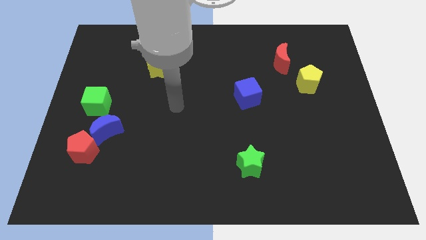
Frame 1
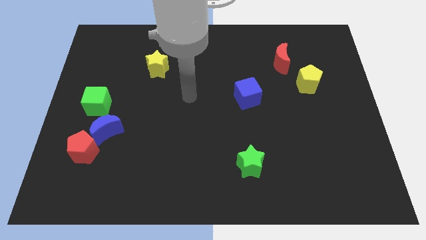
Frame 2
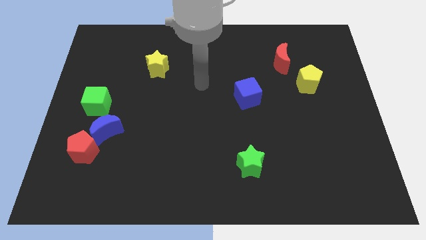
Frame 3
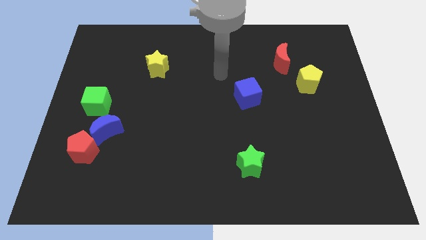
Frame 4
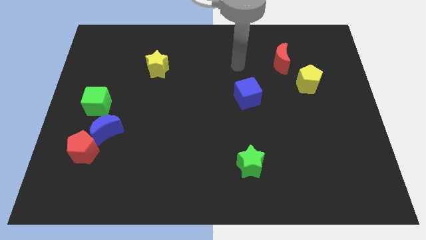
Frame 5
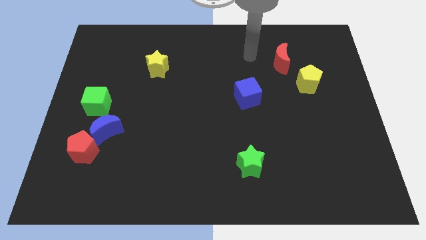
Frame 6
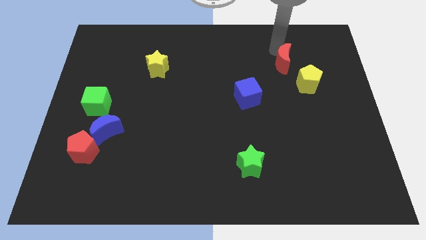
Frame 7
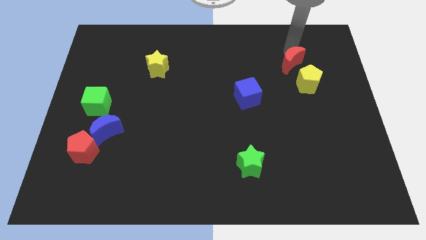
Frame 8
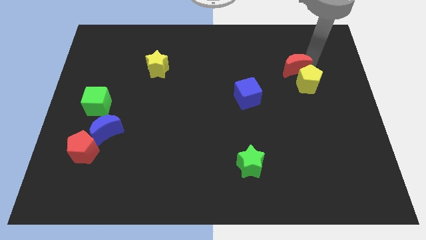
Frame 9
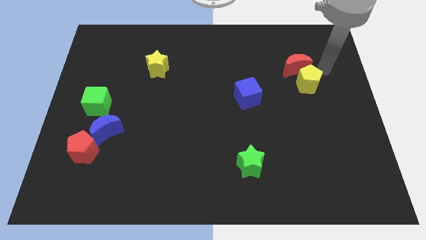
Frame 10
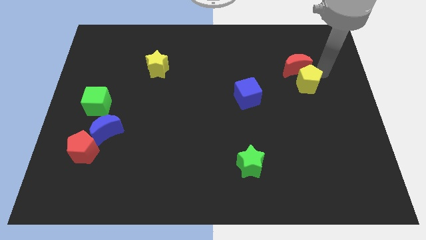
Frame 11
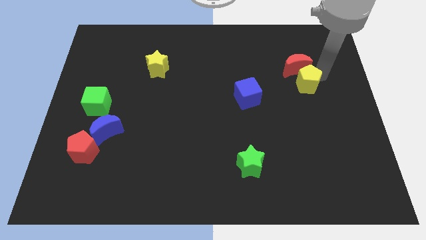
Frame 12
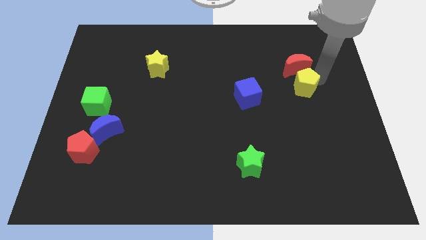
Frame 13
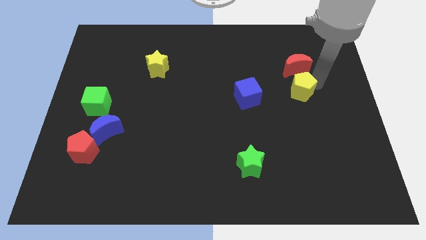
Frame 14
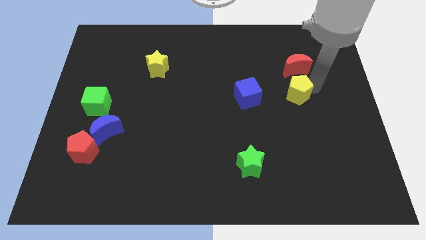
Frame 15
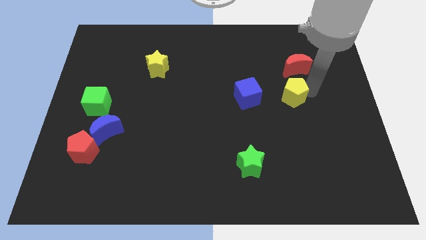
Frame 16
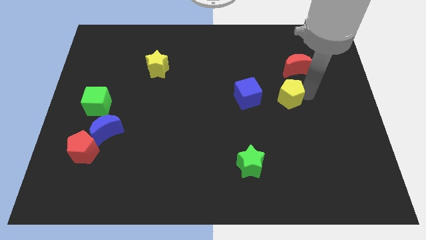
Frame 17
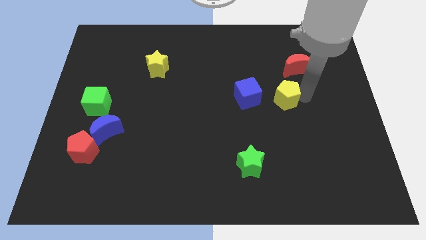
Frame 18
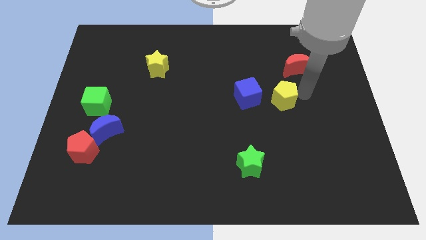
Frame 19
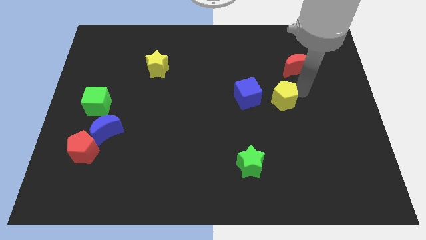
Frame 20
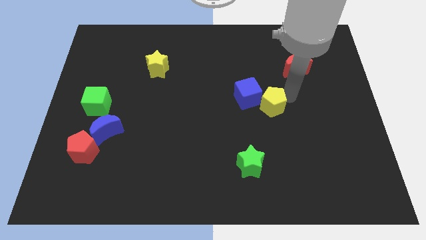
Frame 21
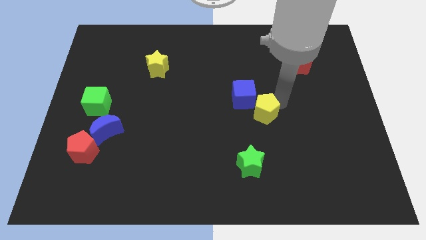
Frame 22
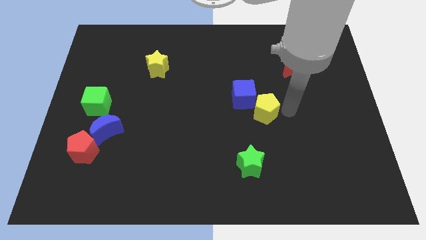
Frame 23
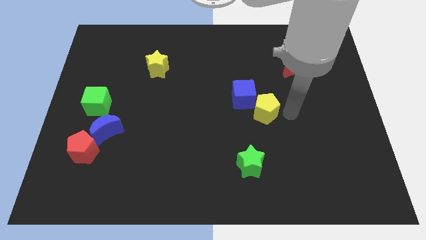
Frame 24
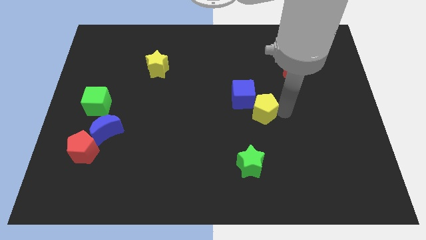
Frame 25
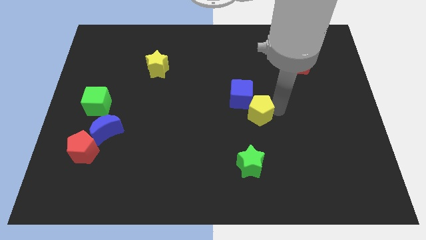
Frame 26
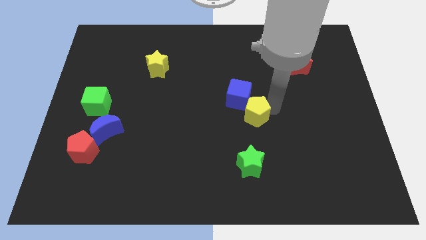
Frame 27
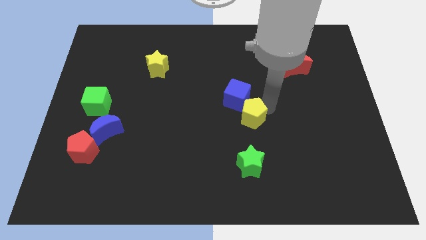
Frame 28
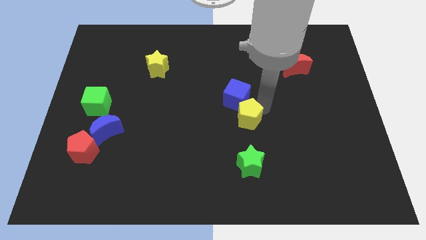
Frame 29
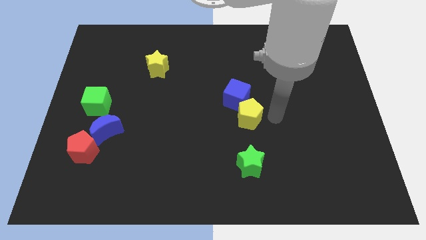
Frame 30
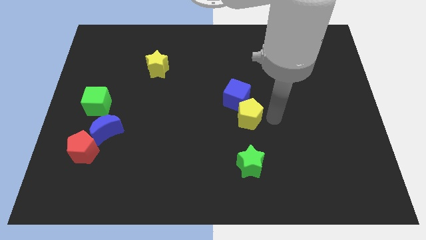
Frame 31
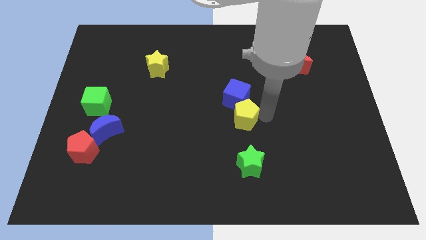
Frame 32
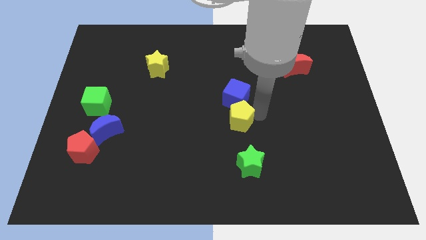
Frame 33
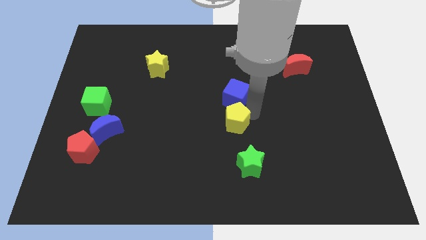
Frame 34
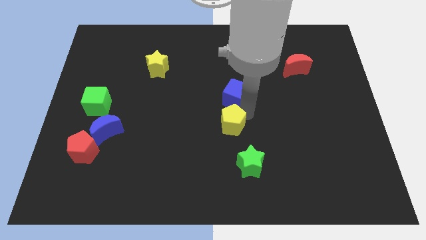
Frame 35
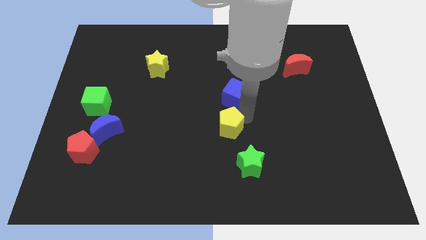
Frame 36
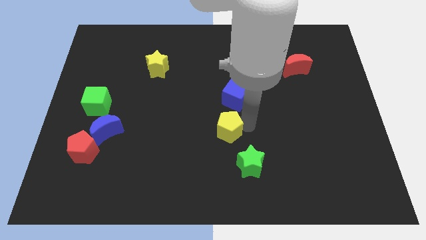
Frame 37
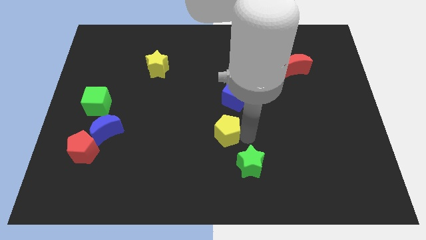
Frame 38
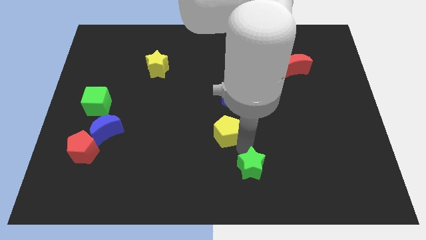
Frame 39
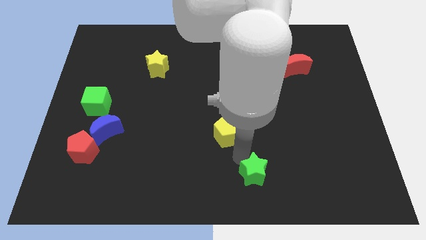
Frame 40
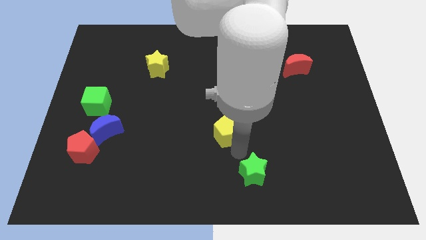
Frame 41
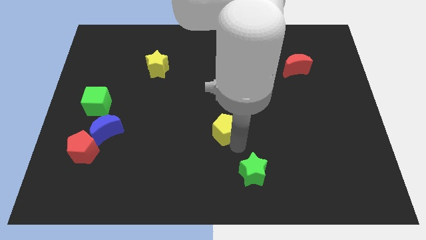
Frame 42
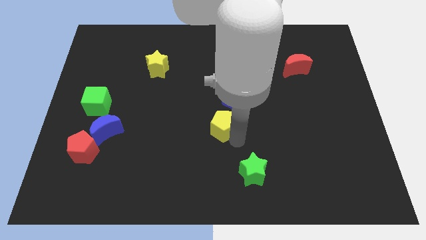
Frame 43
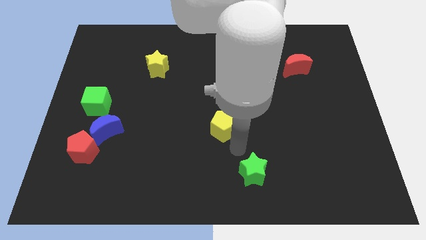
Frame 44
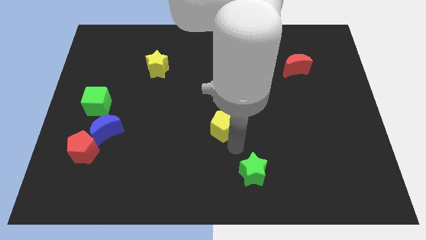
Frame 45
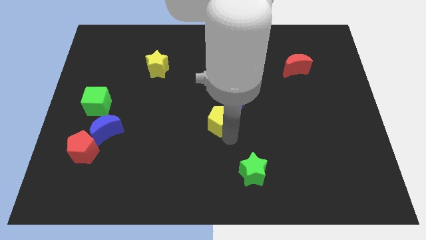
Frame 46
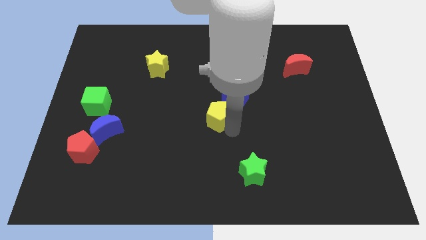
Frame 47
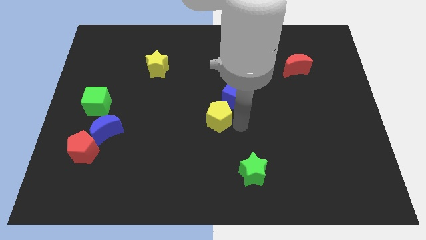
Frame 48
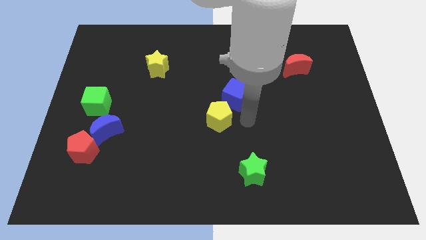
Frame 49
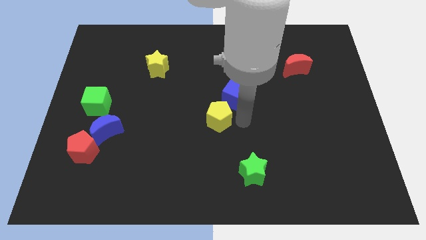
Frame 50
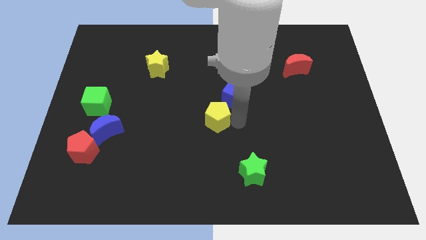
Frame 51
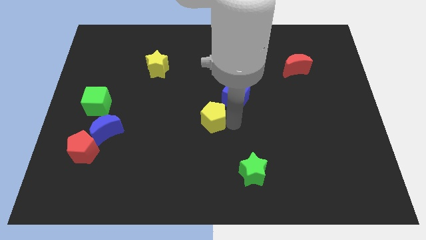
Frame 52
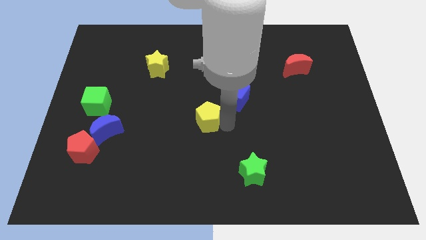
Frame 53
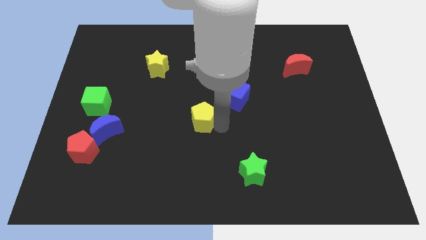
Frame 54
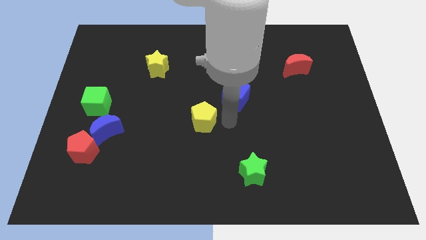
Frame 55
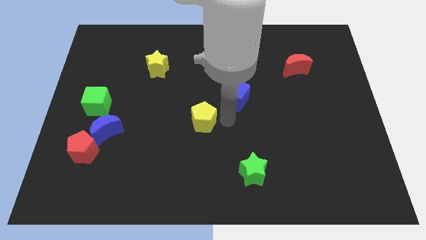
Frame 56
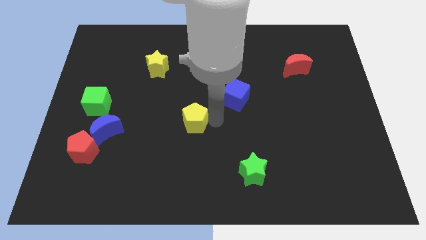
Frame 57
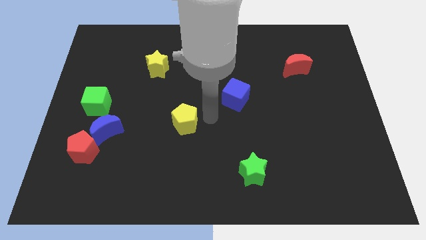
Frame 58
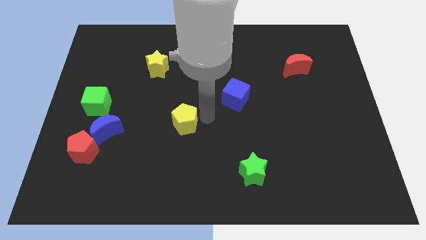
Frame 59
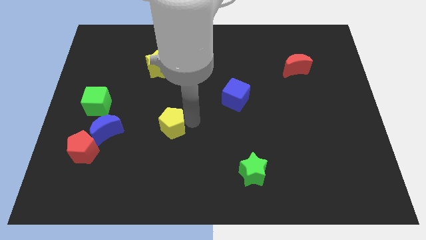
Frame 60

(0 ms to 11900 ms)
move the yellow pentagon just right of the blue moon

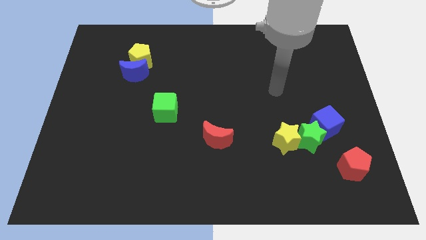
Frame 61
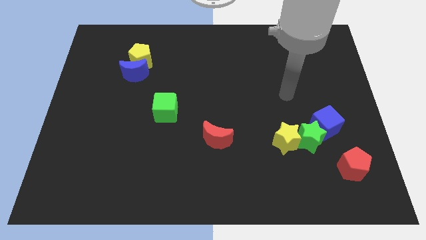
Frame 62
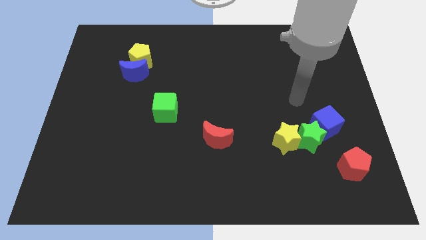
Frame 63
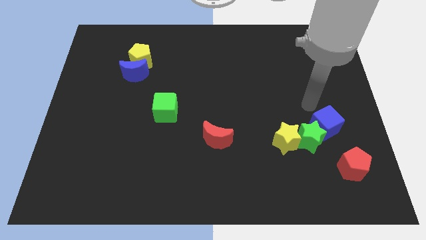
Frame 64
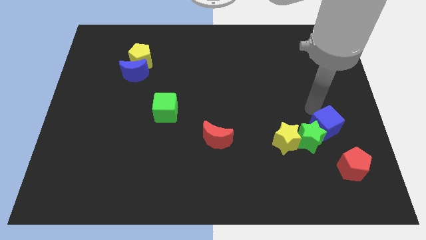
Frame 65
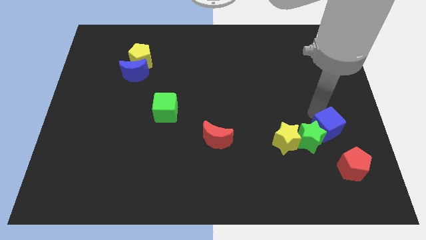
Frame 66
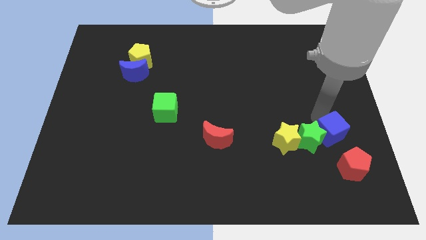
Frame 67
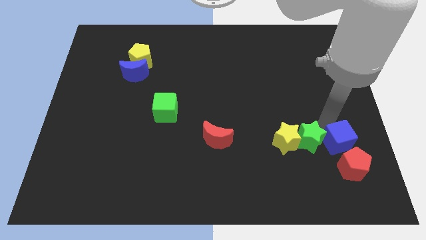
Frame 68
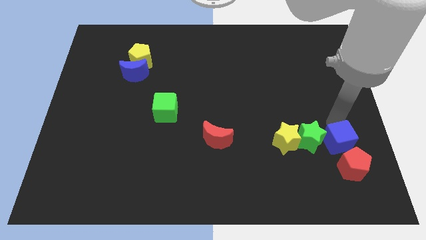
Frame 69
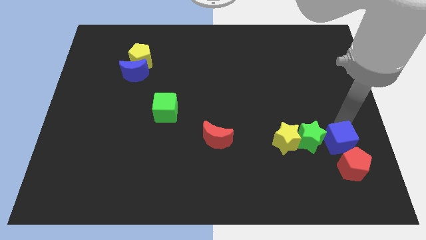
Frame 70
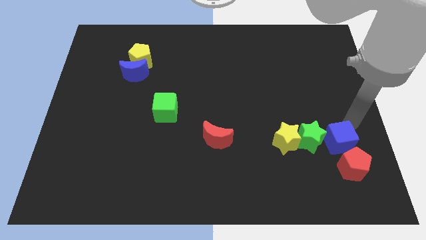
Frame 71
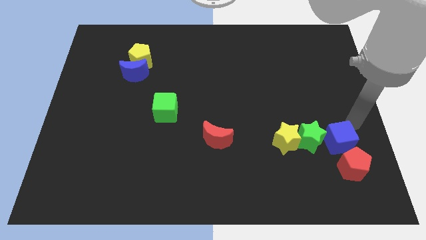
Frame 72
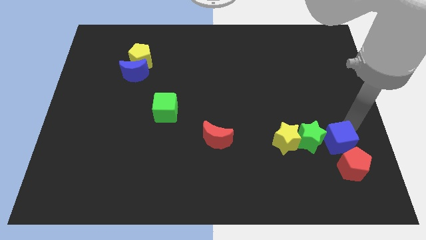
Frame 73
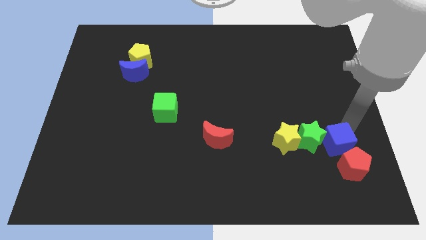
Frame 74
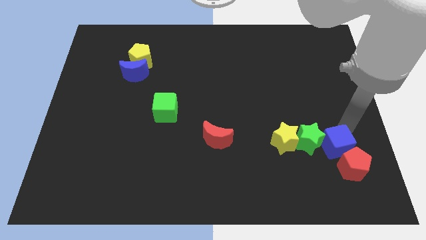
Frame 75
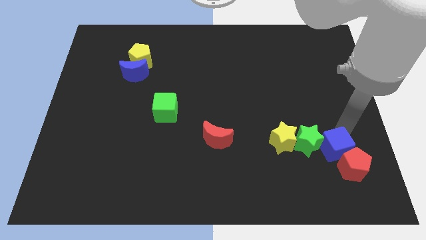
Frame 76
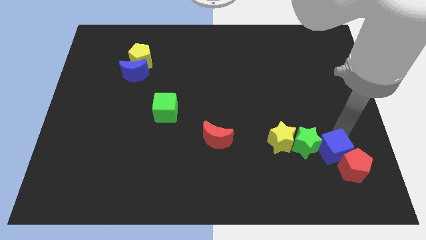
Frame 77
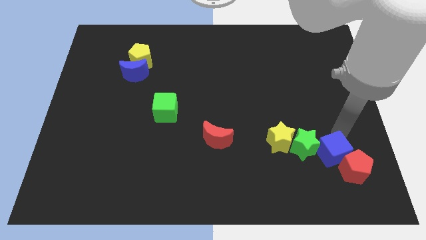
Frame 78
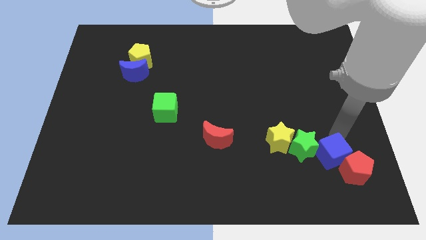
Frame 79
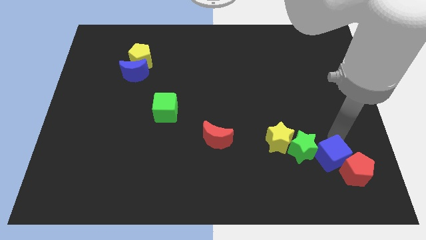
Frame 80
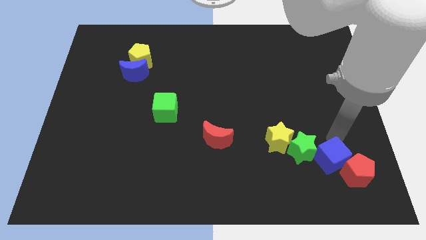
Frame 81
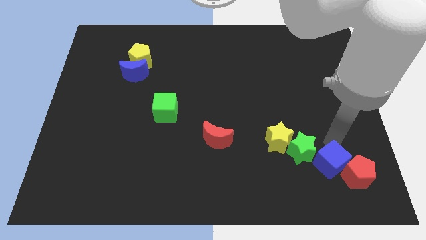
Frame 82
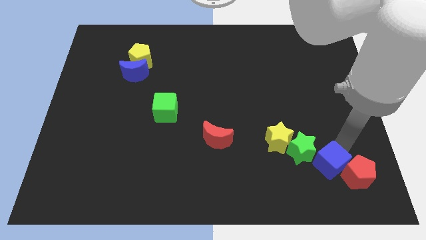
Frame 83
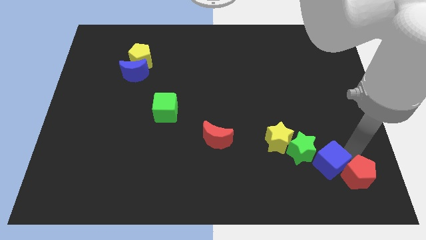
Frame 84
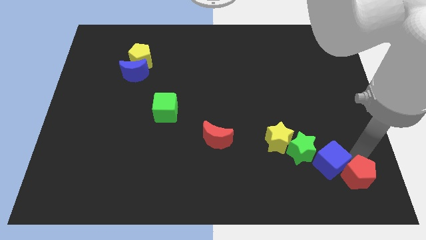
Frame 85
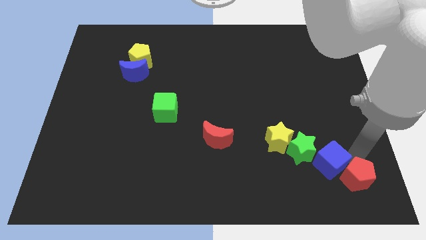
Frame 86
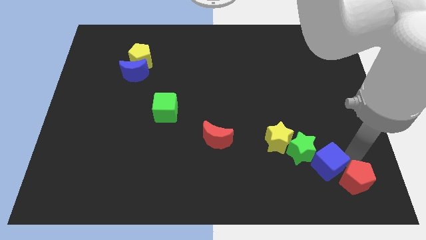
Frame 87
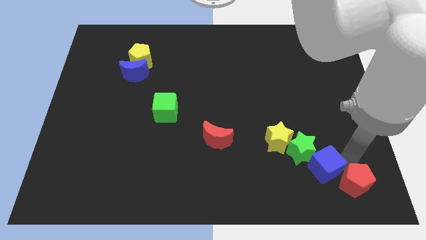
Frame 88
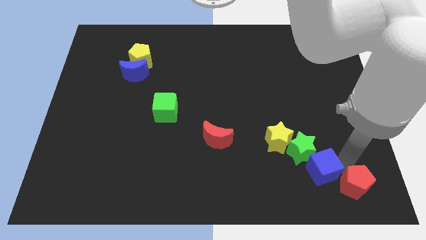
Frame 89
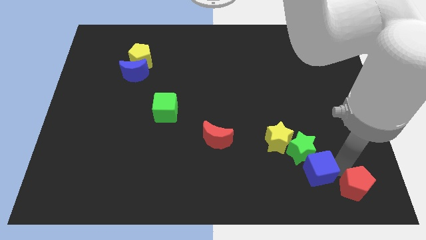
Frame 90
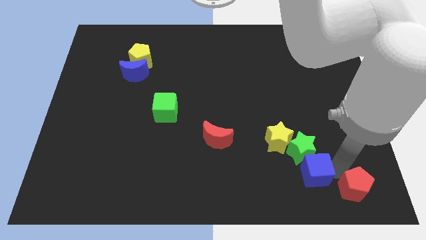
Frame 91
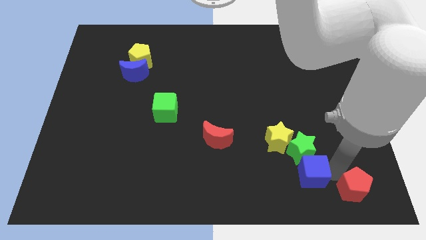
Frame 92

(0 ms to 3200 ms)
move the blue cube to the bottom left side of the green star
